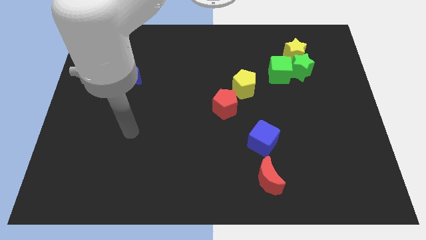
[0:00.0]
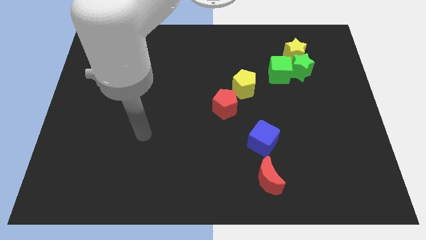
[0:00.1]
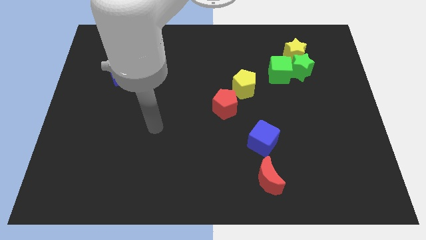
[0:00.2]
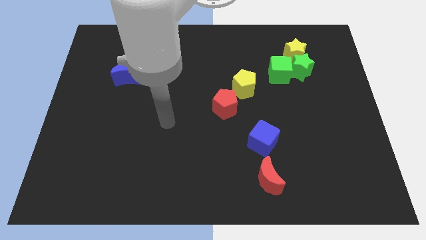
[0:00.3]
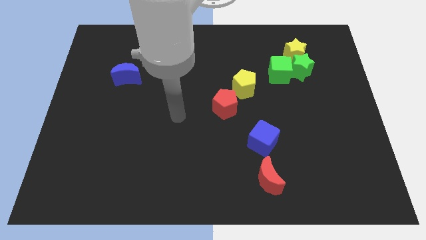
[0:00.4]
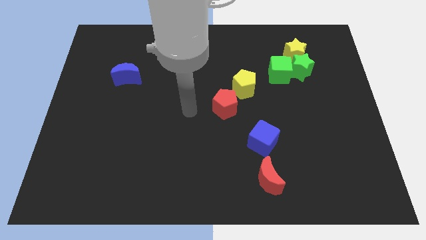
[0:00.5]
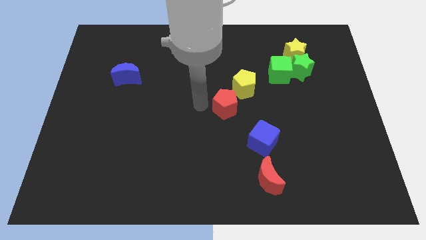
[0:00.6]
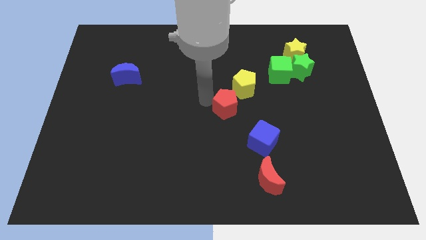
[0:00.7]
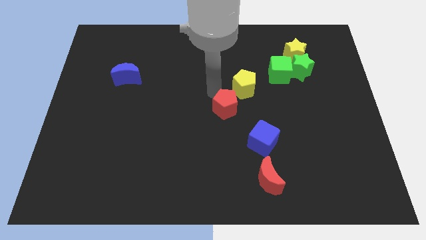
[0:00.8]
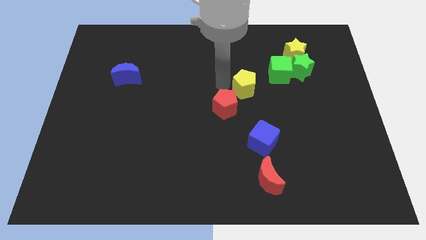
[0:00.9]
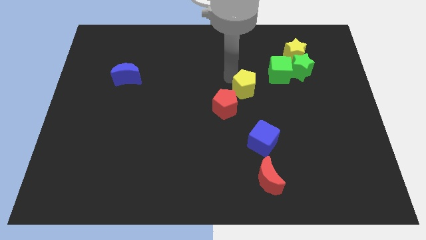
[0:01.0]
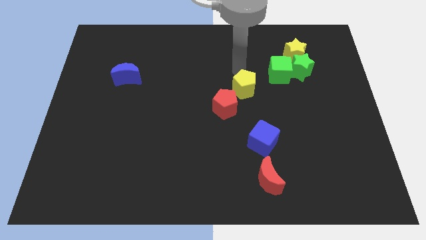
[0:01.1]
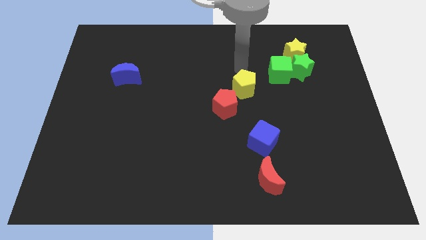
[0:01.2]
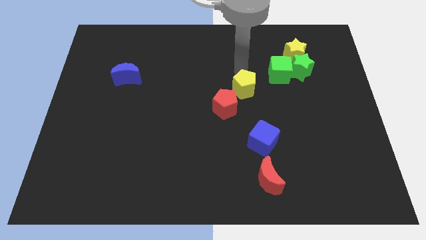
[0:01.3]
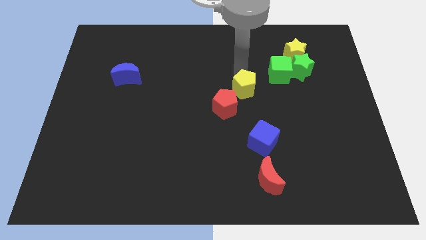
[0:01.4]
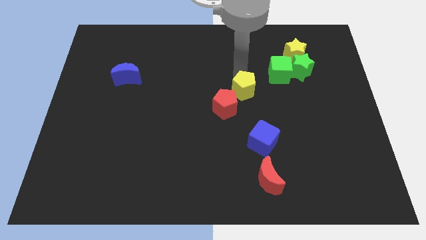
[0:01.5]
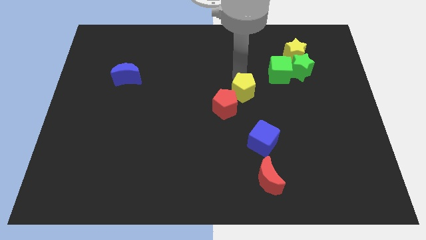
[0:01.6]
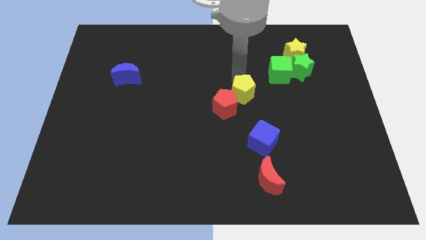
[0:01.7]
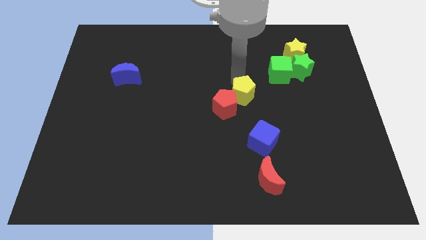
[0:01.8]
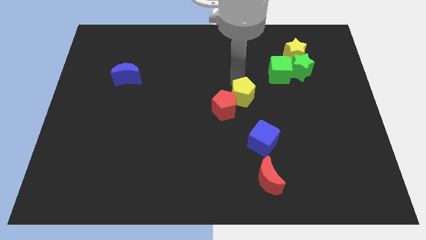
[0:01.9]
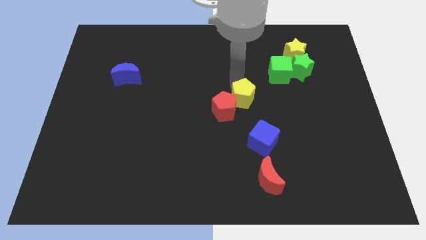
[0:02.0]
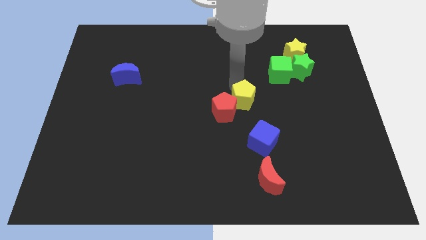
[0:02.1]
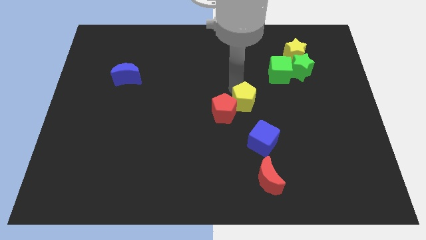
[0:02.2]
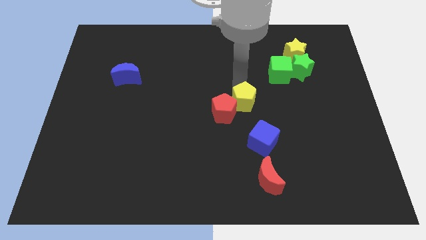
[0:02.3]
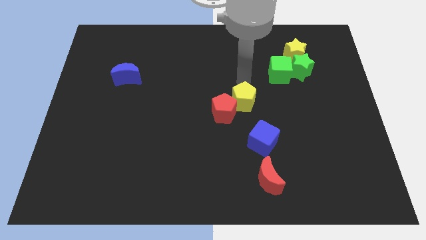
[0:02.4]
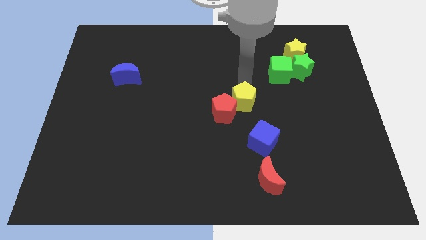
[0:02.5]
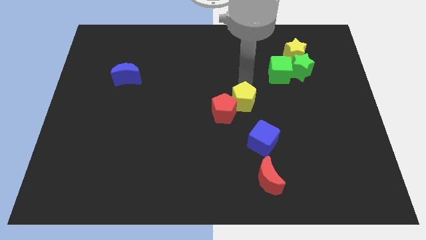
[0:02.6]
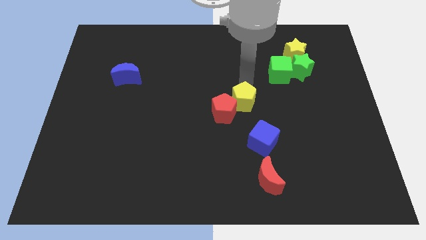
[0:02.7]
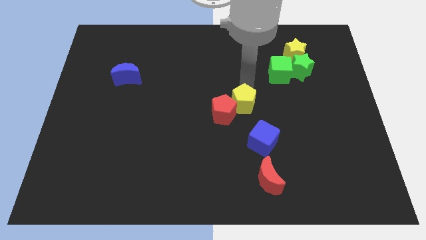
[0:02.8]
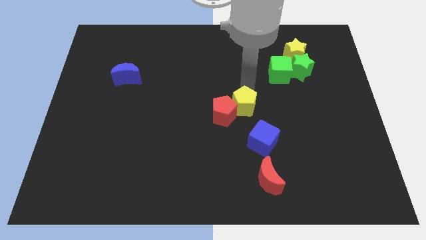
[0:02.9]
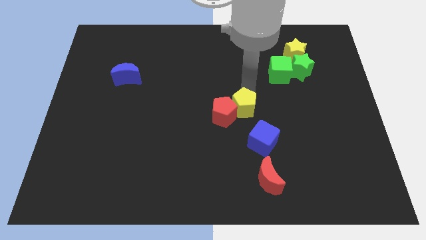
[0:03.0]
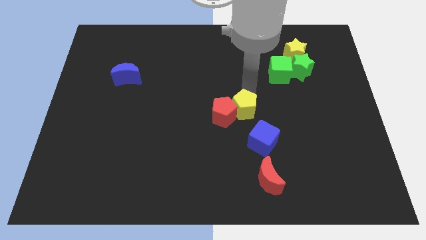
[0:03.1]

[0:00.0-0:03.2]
slide the yellow pentagon downwards a little bit

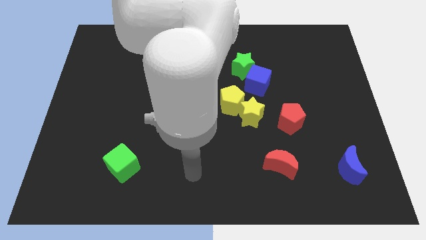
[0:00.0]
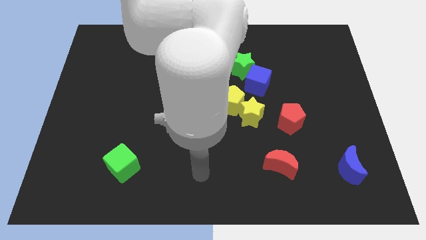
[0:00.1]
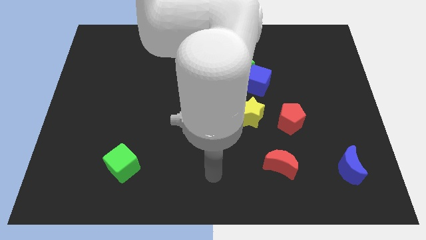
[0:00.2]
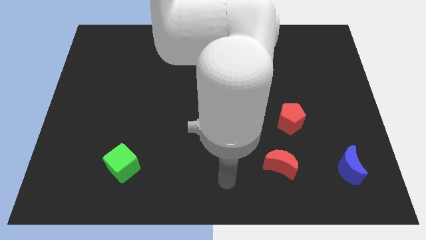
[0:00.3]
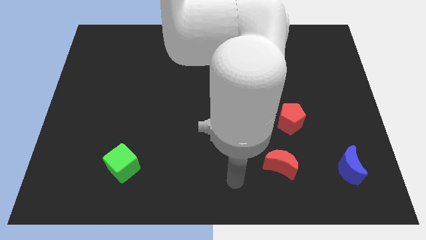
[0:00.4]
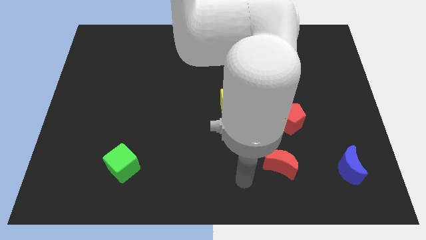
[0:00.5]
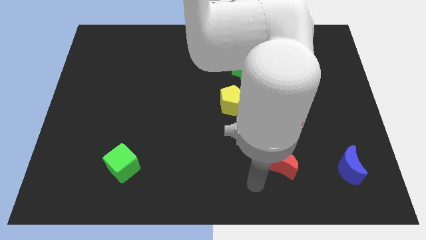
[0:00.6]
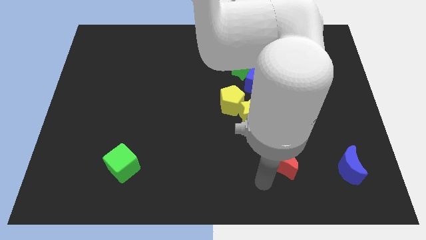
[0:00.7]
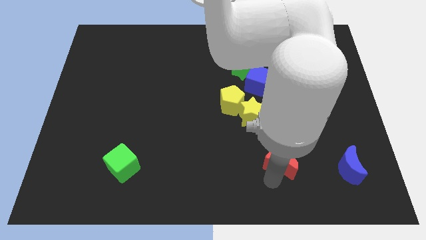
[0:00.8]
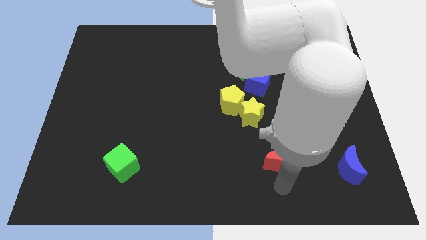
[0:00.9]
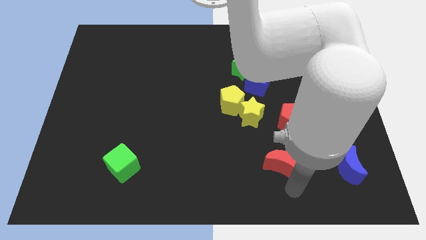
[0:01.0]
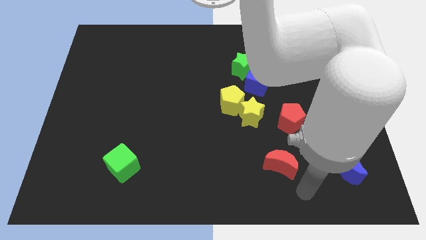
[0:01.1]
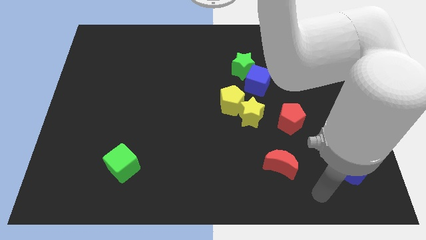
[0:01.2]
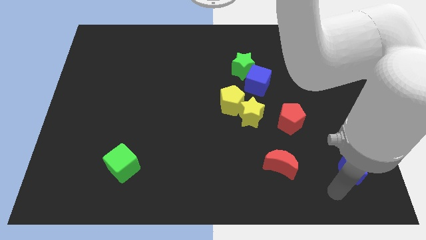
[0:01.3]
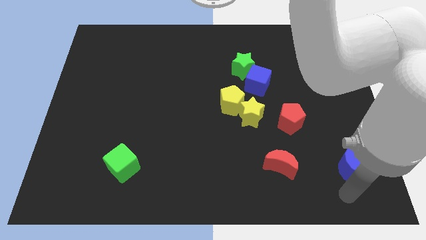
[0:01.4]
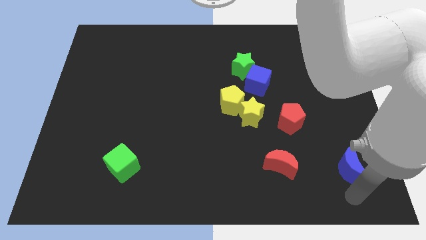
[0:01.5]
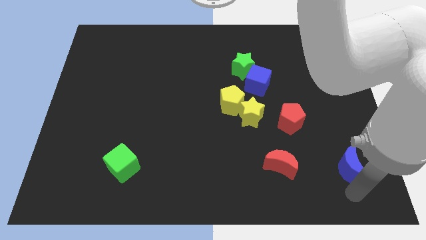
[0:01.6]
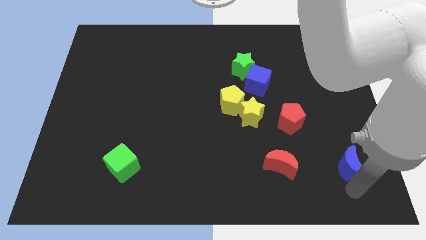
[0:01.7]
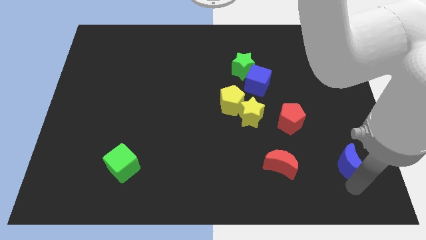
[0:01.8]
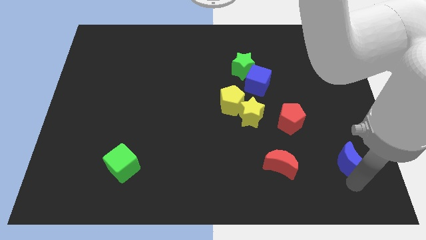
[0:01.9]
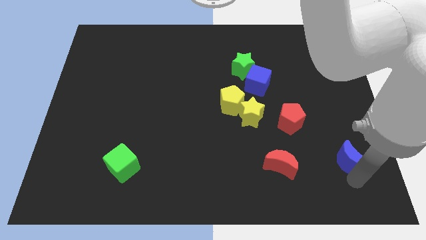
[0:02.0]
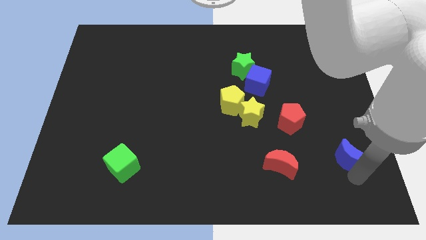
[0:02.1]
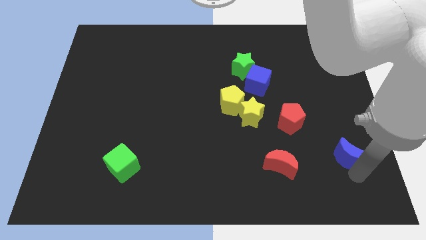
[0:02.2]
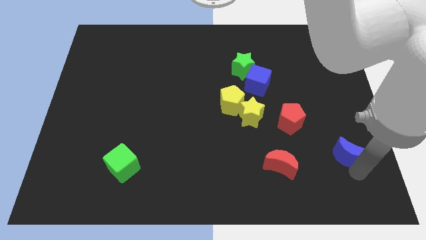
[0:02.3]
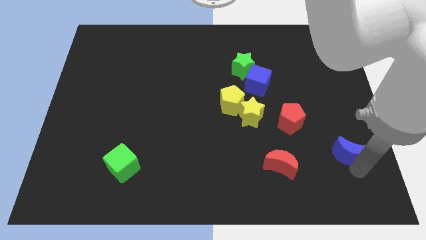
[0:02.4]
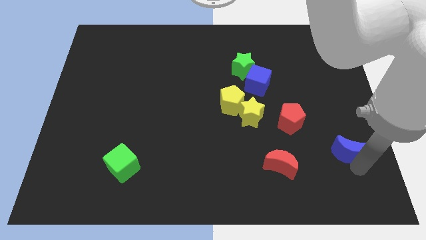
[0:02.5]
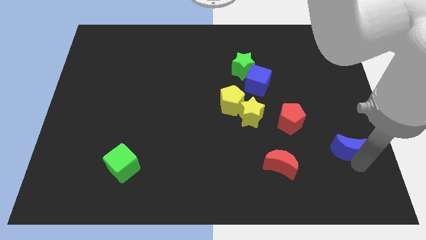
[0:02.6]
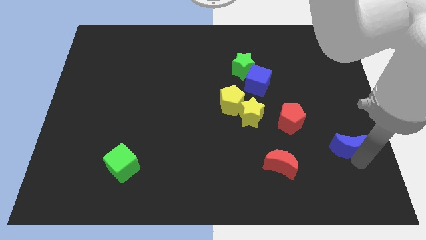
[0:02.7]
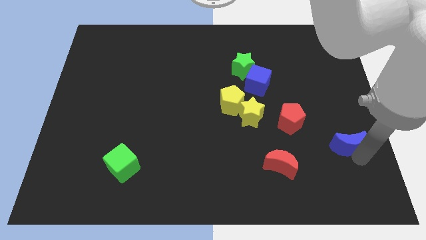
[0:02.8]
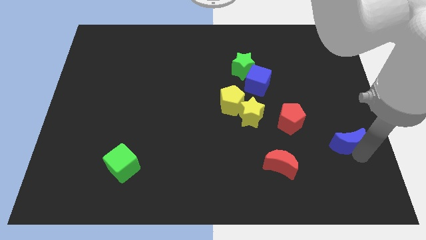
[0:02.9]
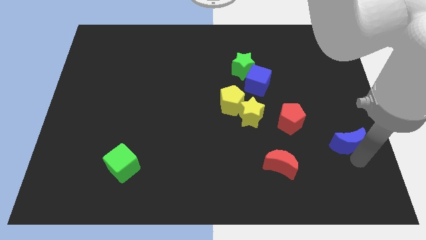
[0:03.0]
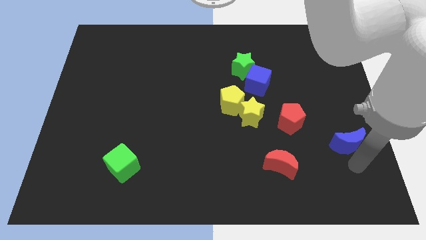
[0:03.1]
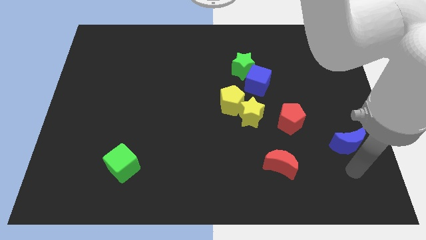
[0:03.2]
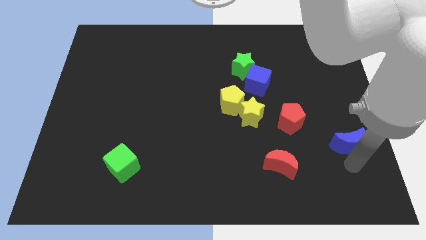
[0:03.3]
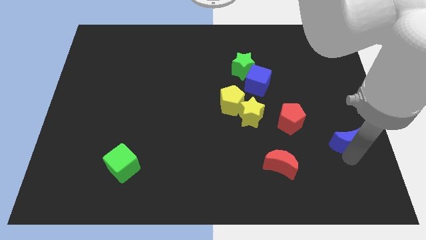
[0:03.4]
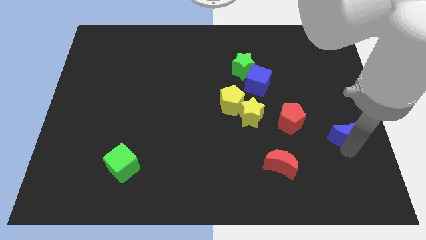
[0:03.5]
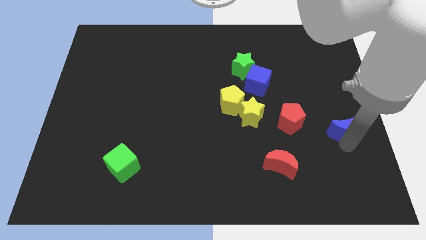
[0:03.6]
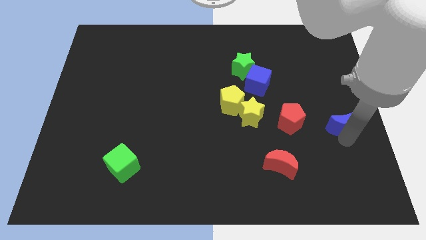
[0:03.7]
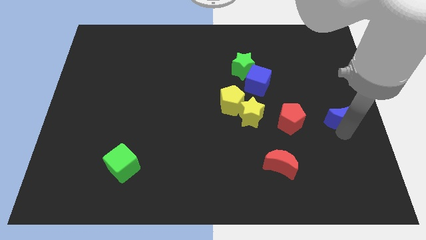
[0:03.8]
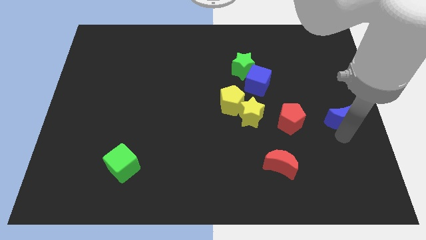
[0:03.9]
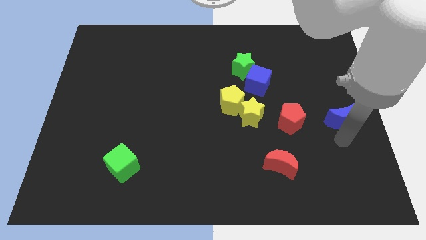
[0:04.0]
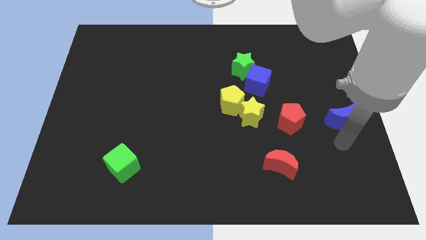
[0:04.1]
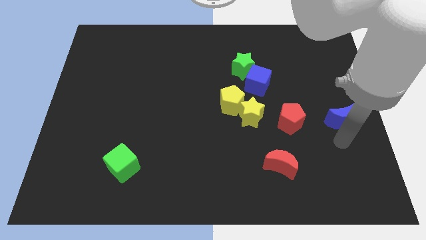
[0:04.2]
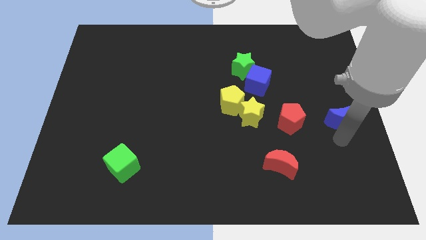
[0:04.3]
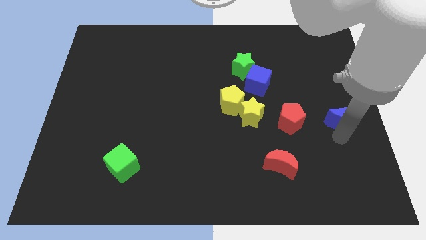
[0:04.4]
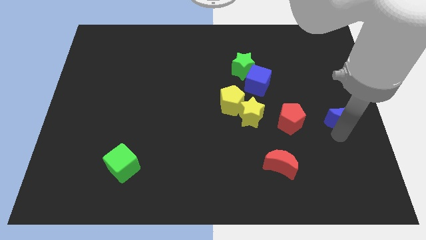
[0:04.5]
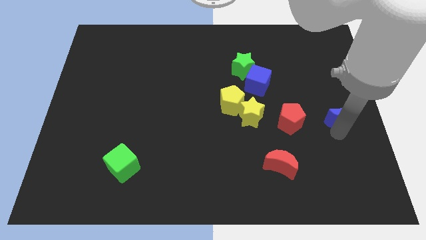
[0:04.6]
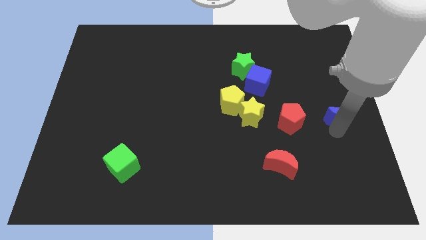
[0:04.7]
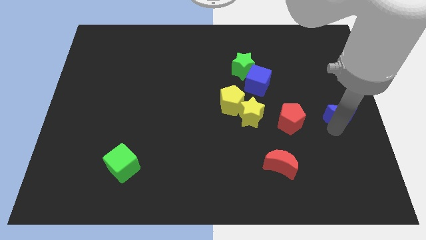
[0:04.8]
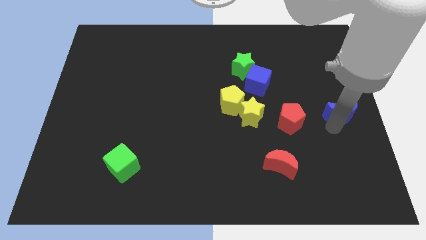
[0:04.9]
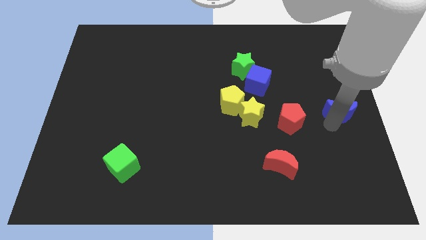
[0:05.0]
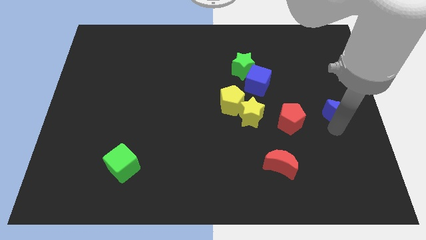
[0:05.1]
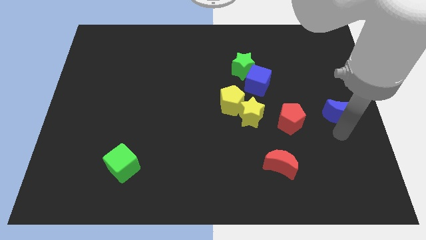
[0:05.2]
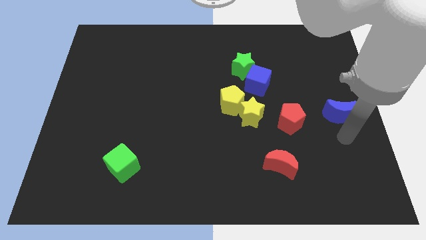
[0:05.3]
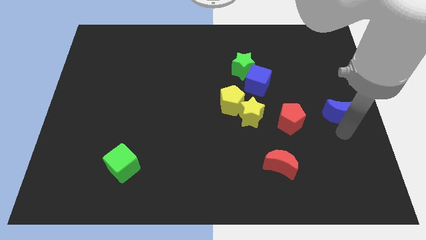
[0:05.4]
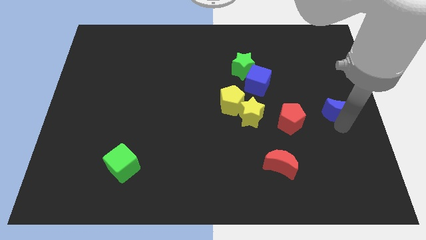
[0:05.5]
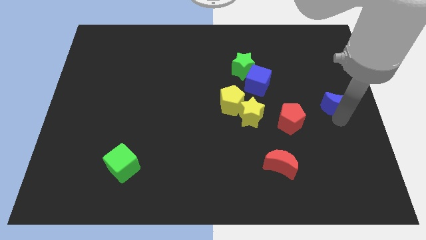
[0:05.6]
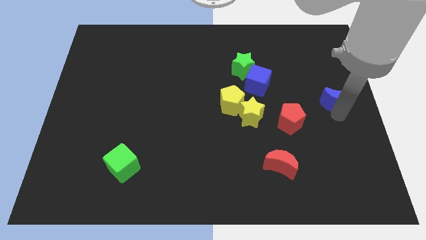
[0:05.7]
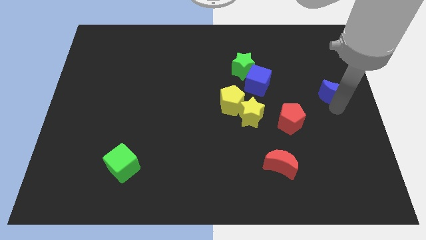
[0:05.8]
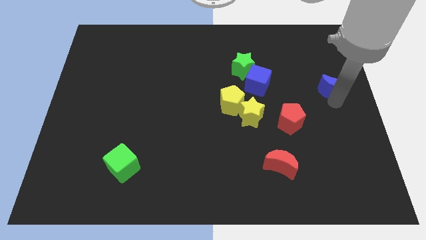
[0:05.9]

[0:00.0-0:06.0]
push the blue moon upwards
